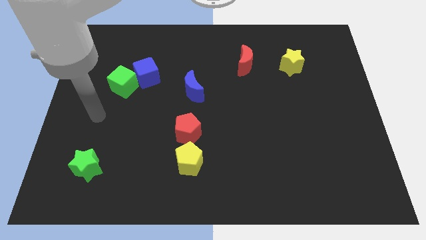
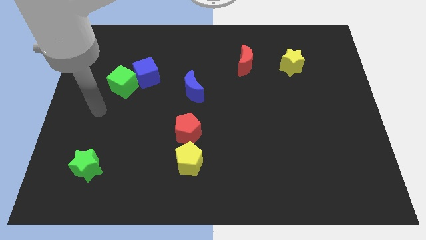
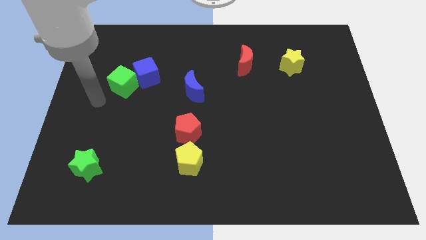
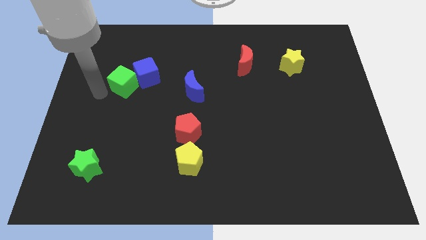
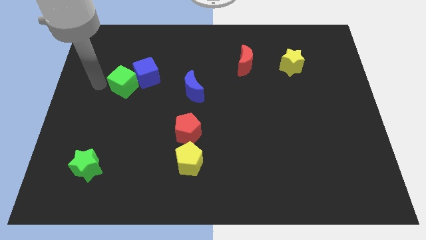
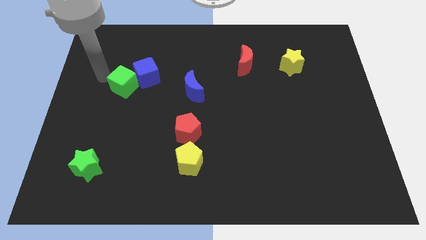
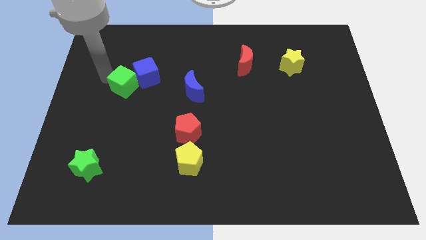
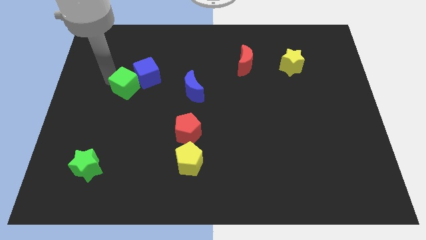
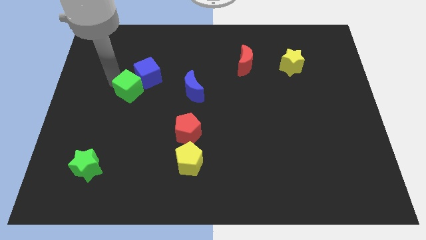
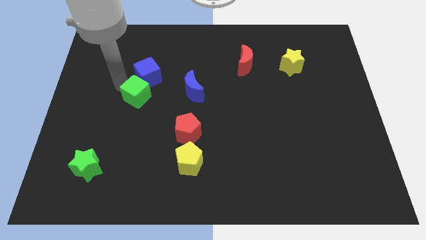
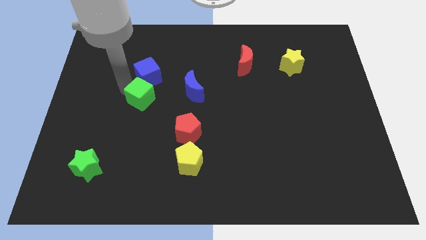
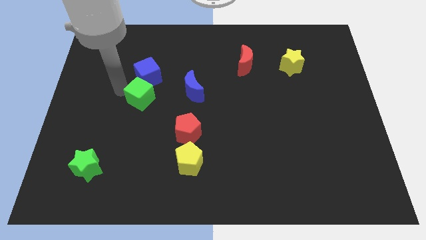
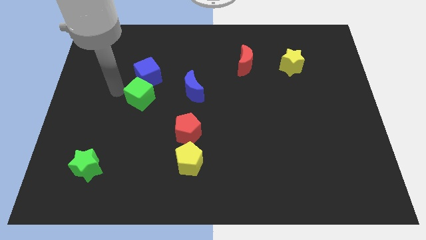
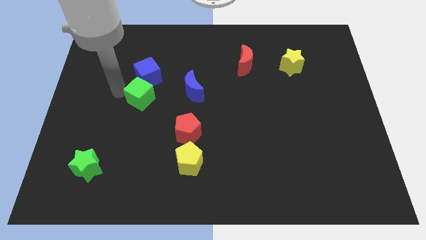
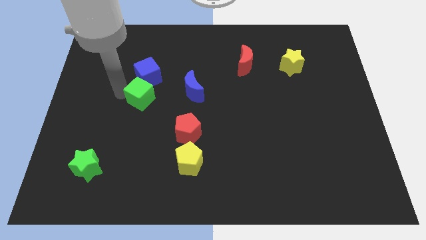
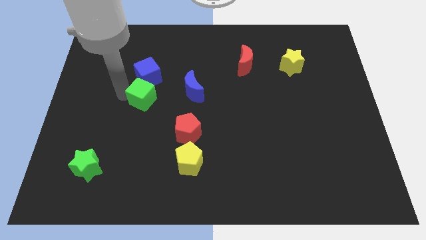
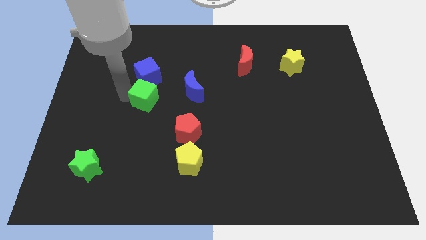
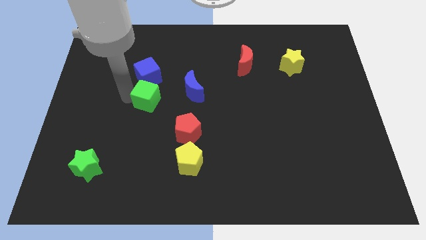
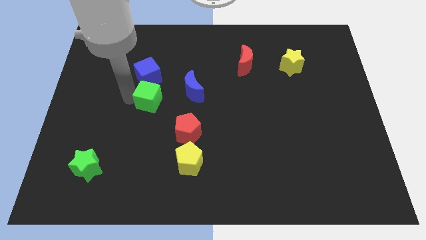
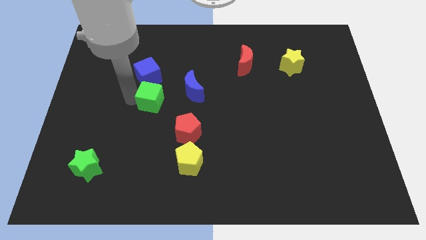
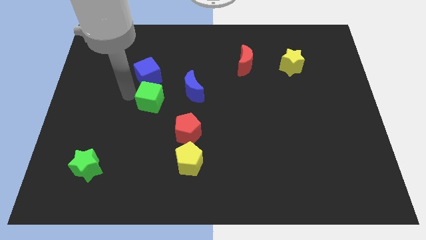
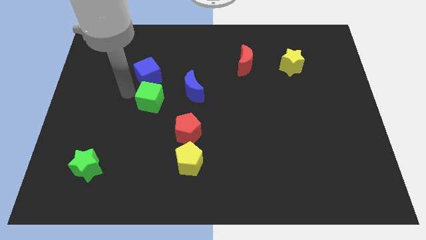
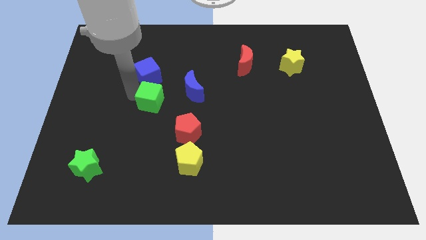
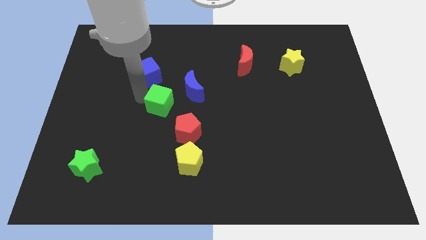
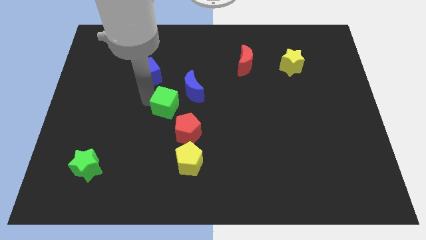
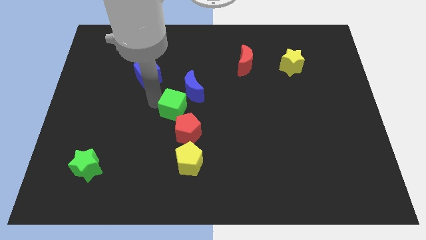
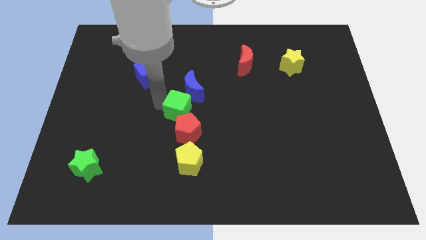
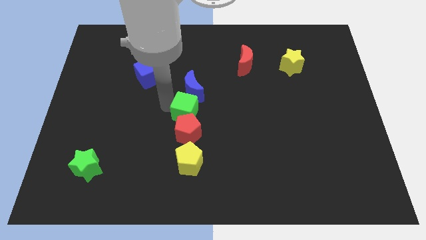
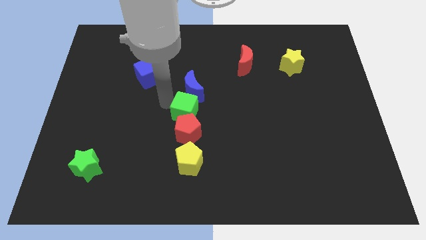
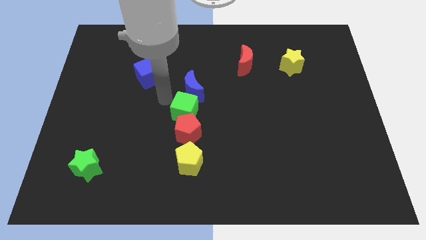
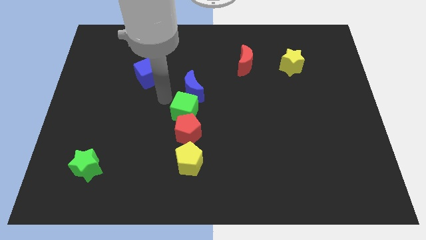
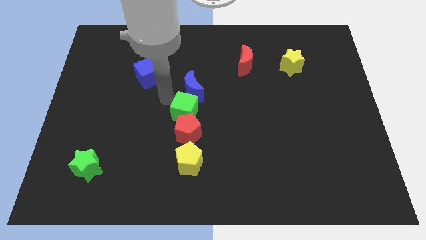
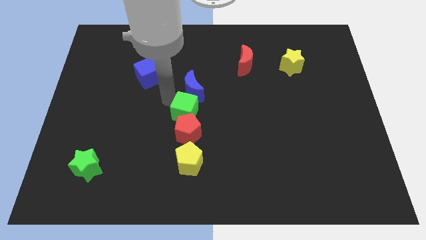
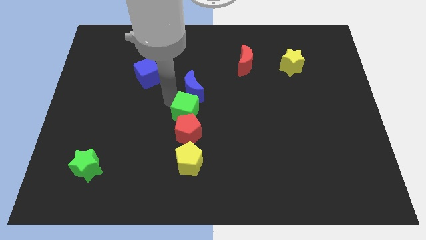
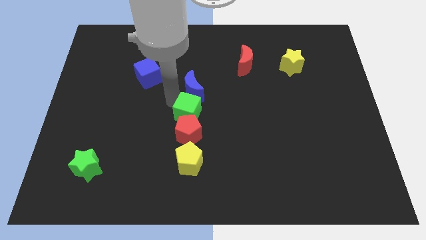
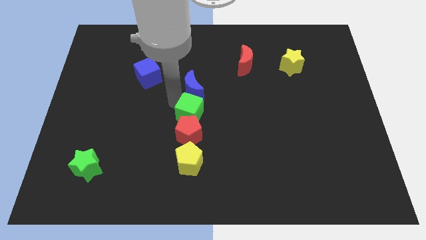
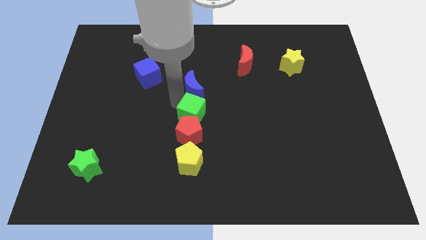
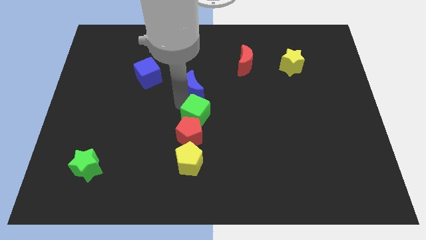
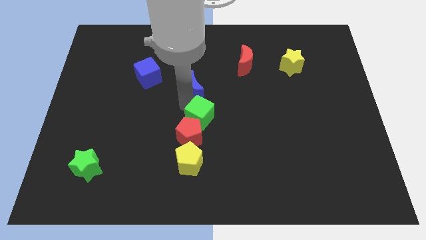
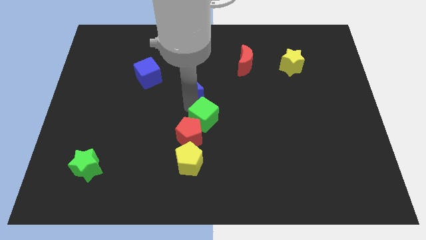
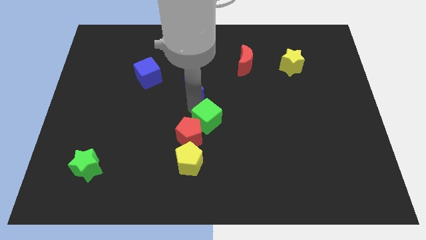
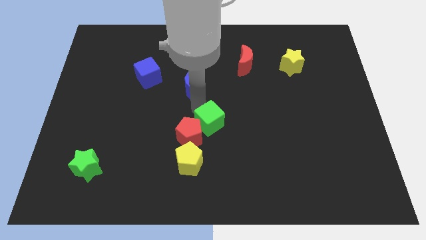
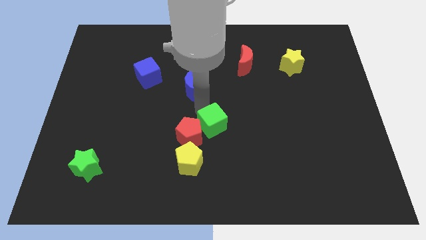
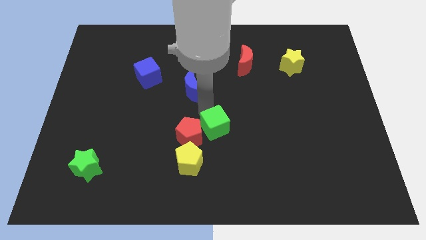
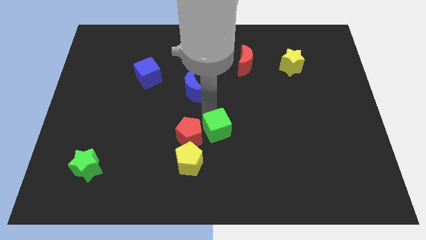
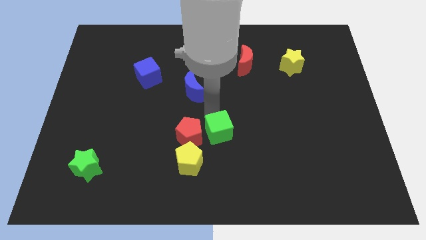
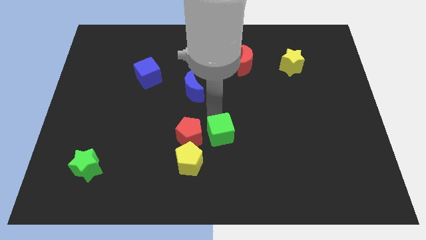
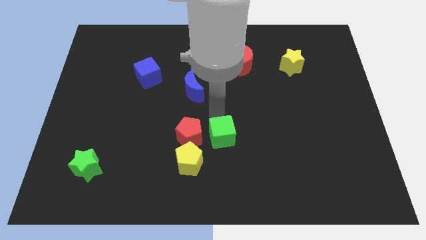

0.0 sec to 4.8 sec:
slide the green cube to the bottom right side of the red pentagon

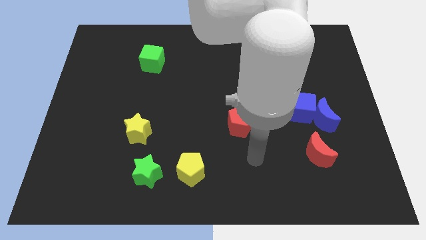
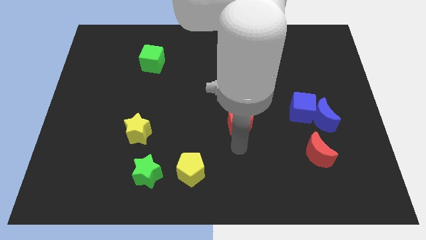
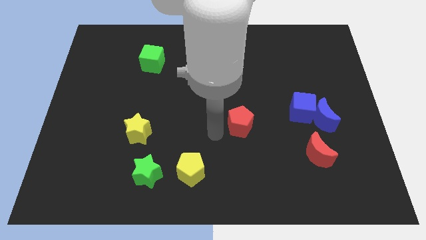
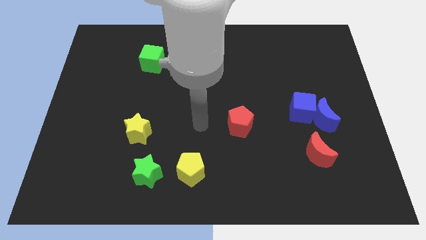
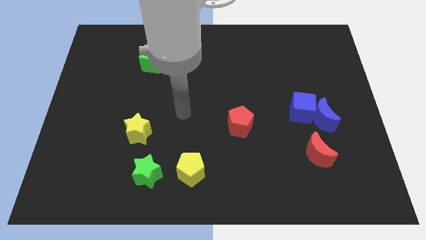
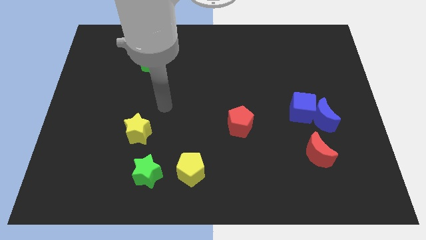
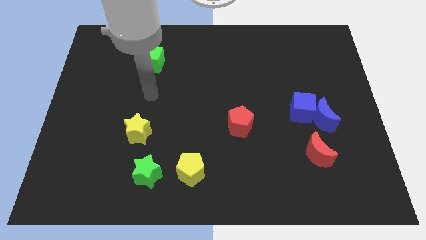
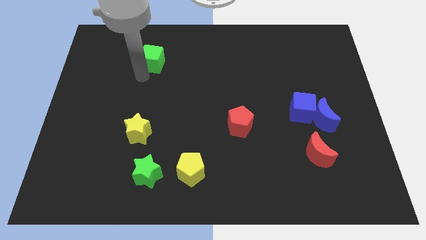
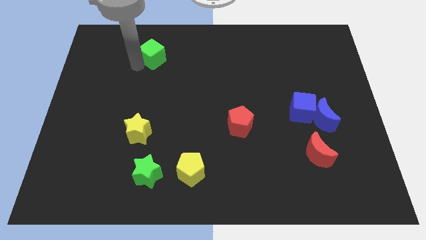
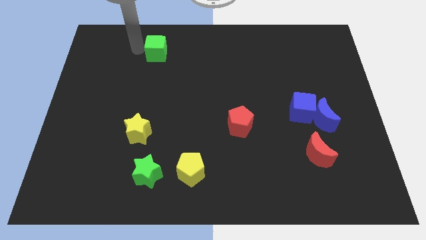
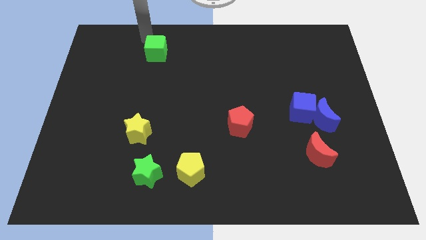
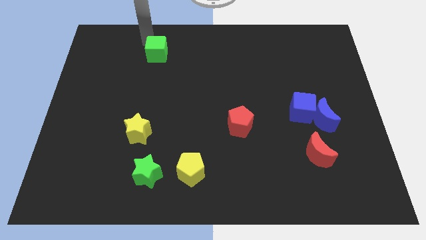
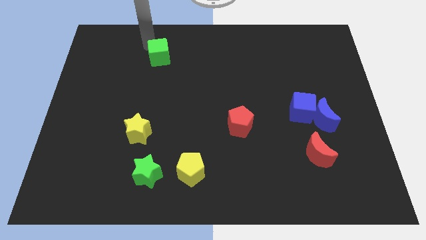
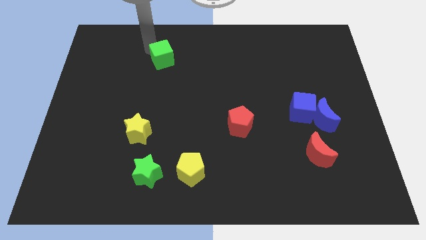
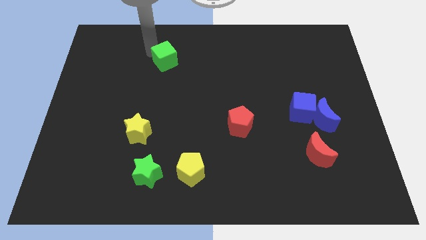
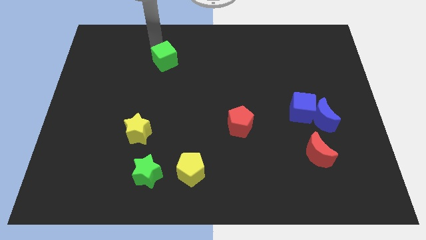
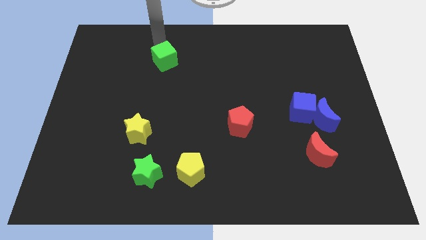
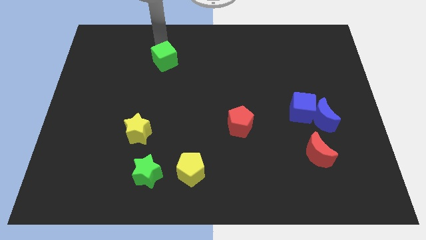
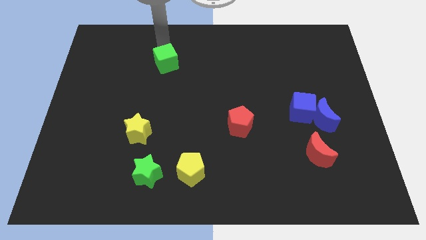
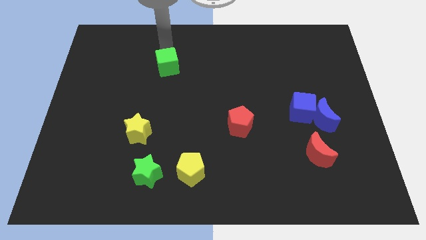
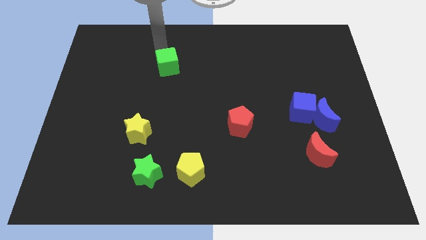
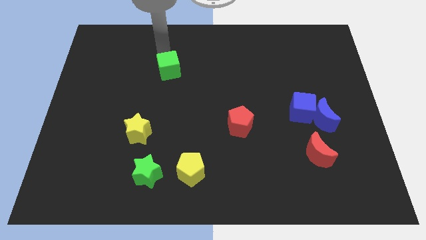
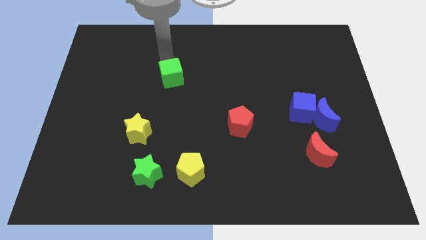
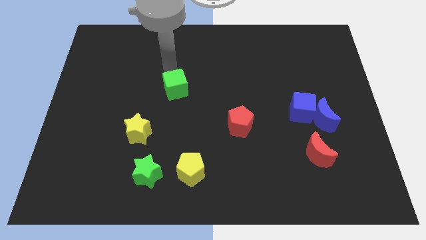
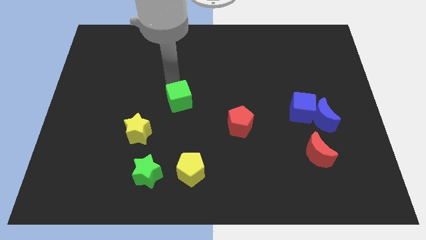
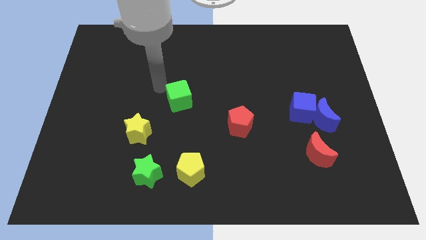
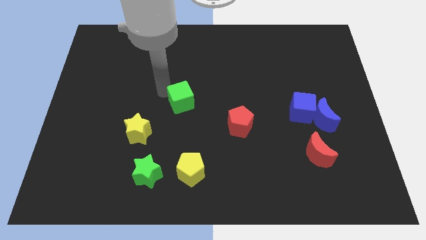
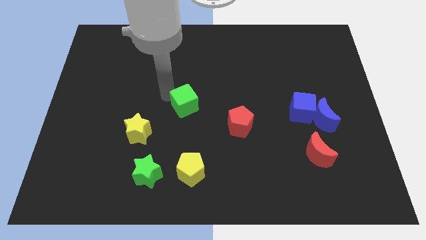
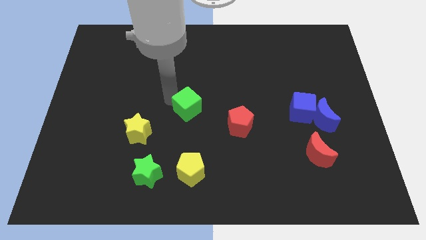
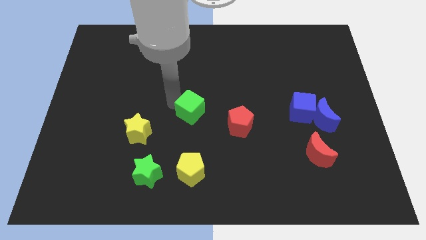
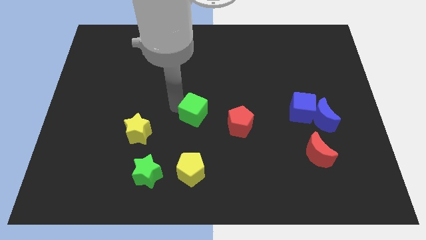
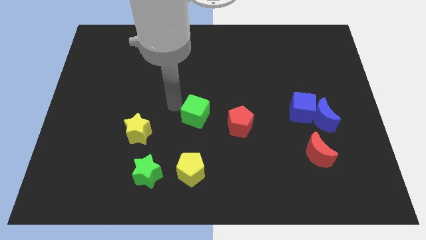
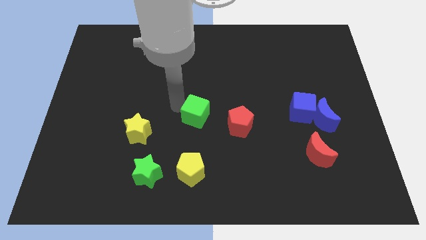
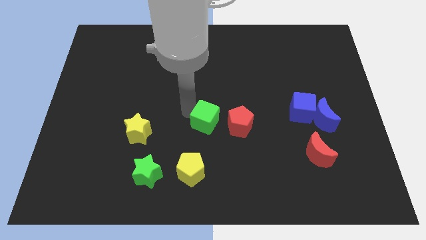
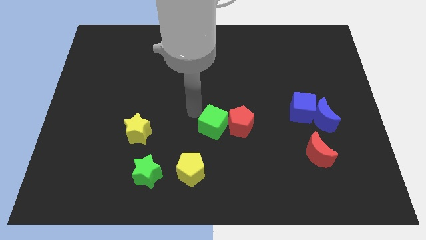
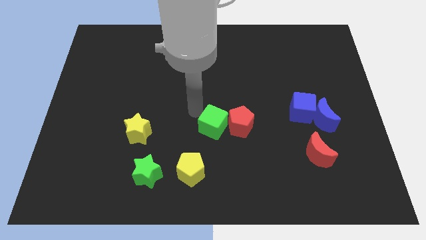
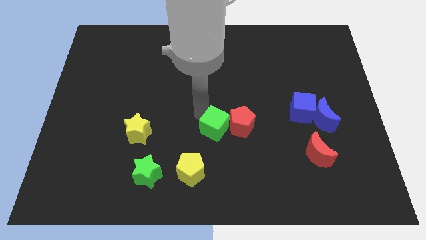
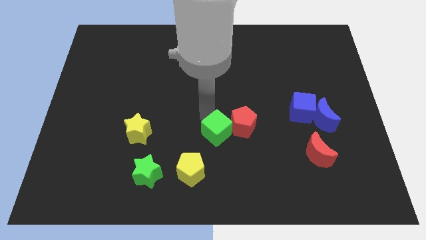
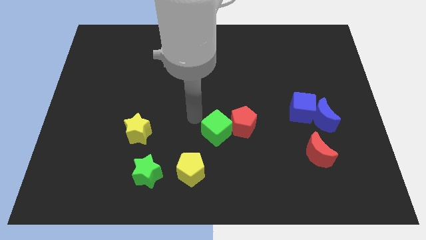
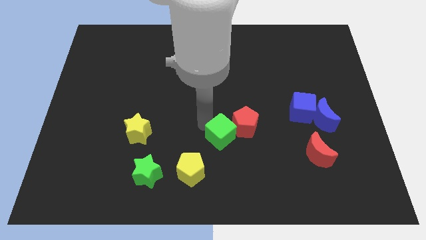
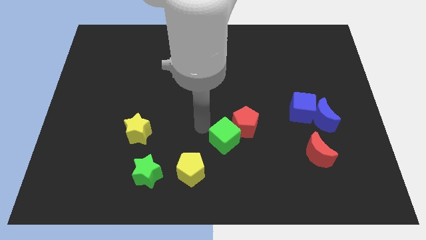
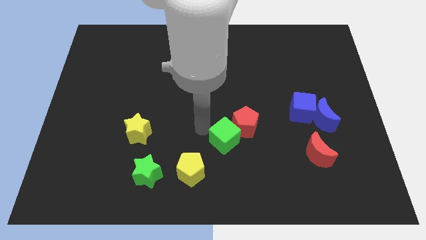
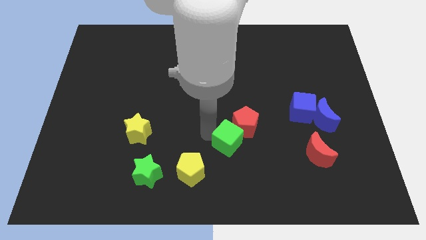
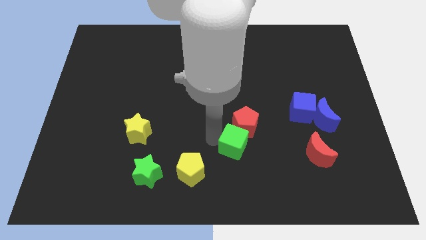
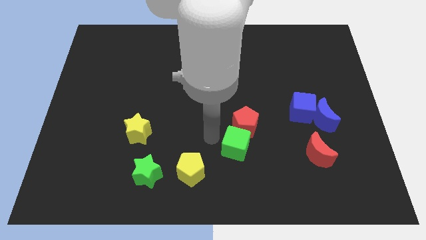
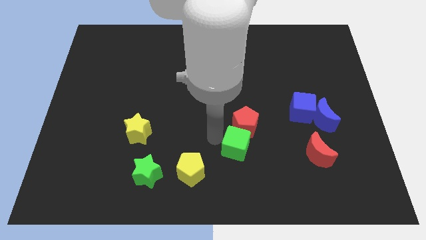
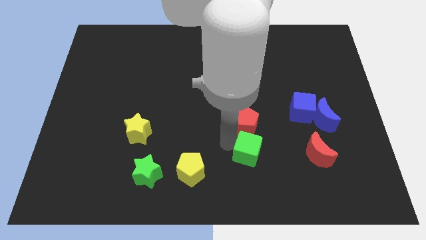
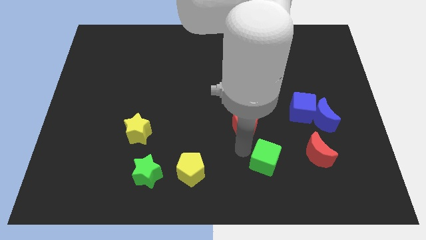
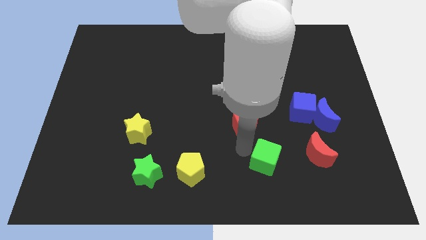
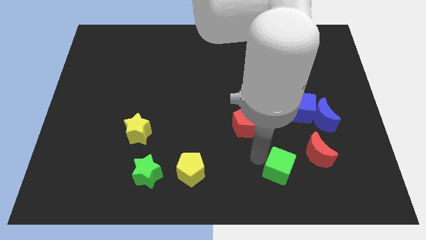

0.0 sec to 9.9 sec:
slide the green cube to the bottom left side of the red moon
